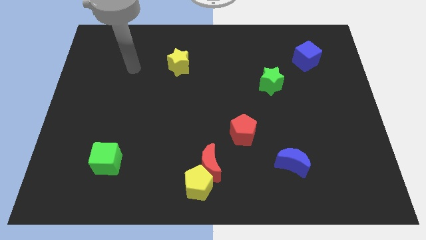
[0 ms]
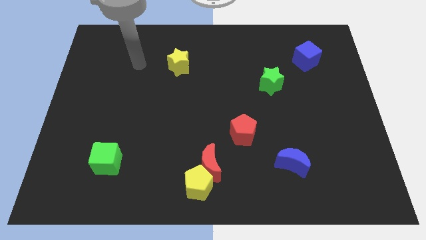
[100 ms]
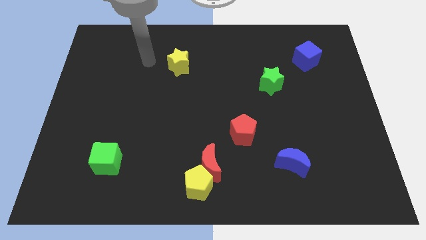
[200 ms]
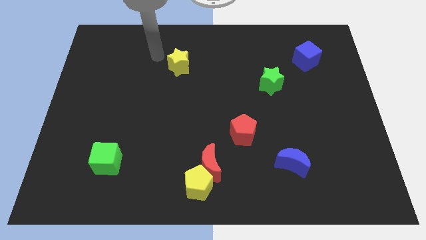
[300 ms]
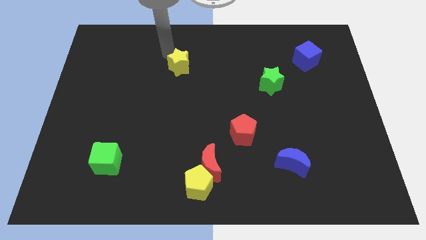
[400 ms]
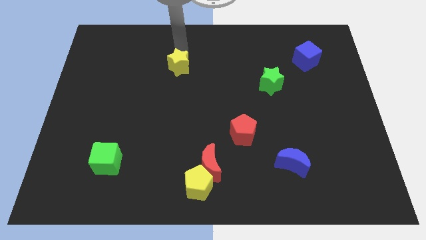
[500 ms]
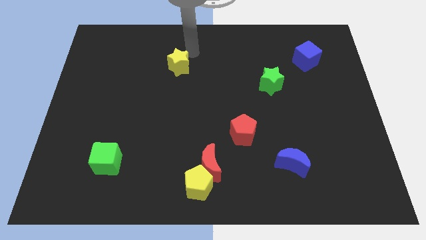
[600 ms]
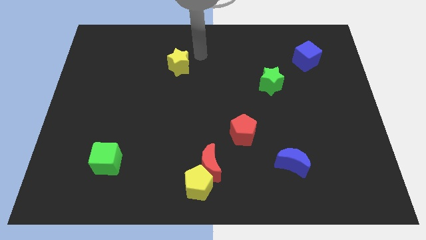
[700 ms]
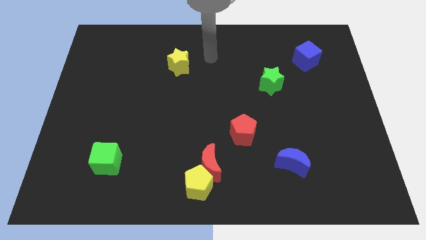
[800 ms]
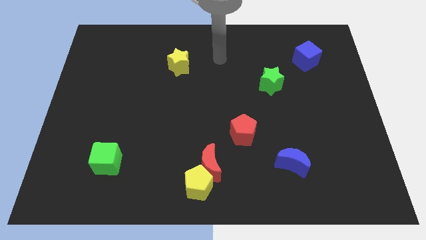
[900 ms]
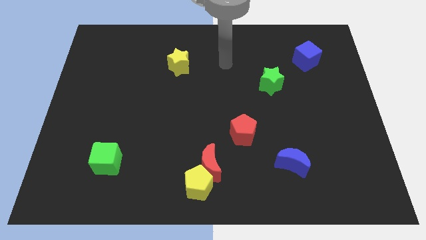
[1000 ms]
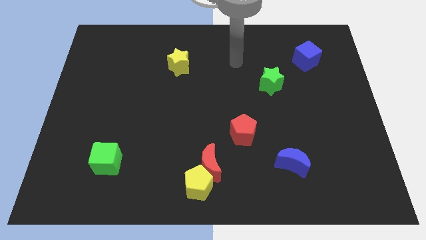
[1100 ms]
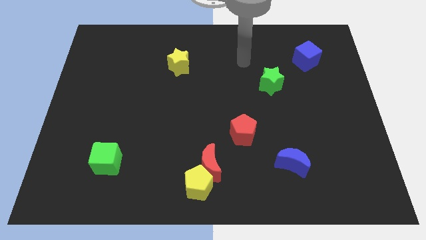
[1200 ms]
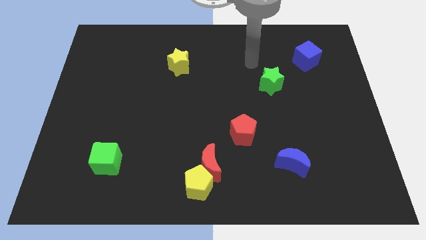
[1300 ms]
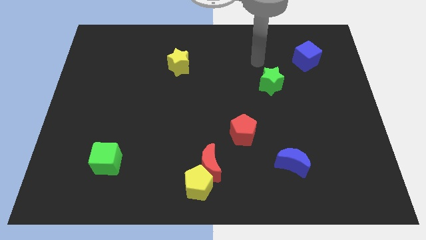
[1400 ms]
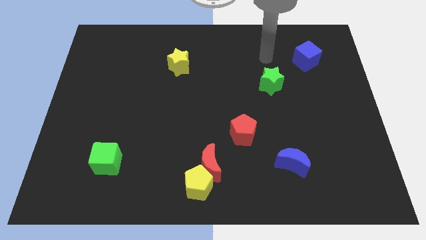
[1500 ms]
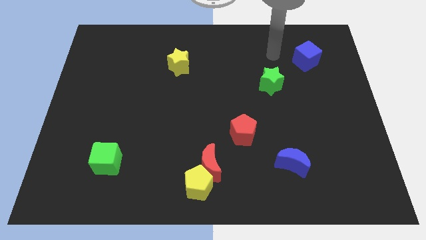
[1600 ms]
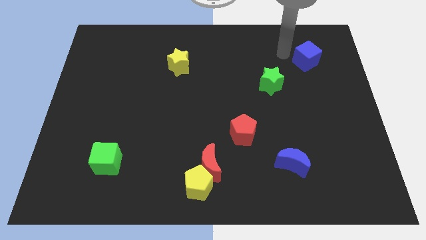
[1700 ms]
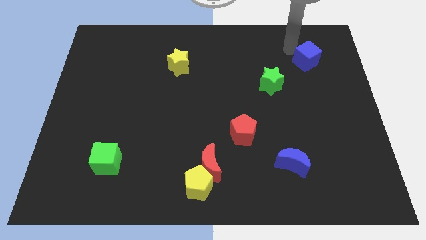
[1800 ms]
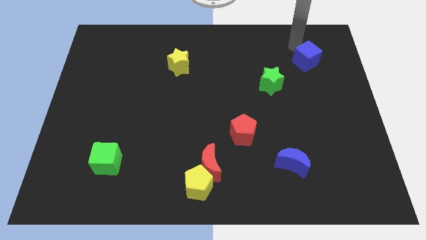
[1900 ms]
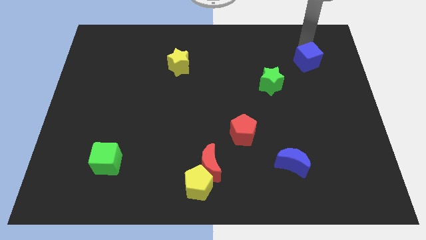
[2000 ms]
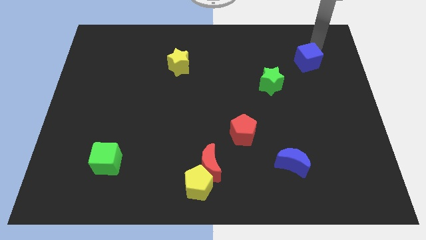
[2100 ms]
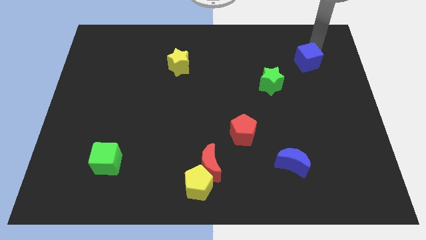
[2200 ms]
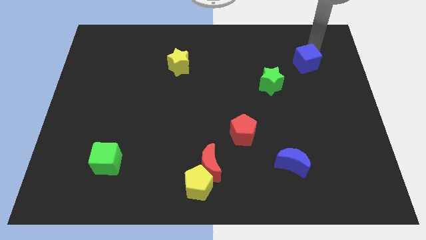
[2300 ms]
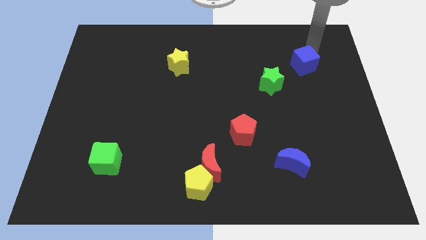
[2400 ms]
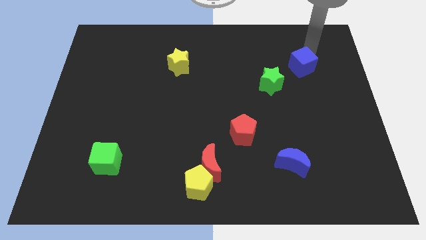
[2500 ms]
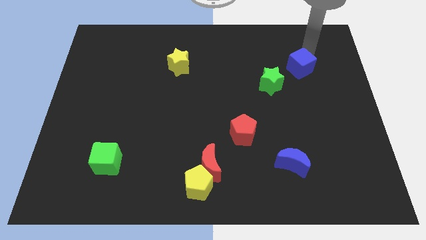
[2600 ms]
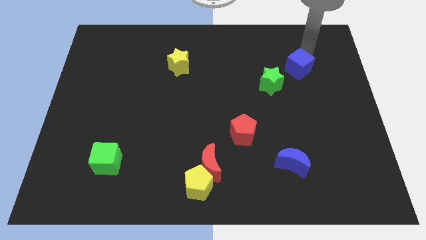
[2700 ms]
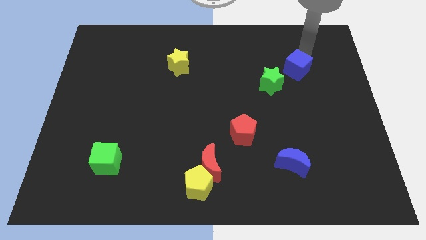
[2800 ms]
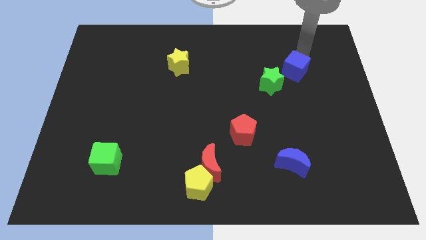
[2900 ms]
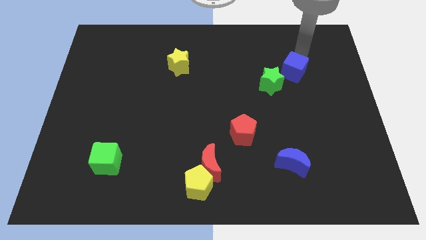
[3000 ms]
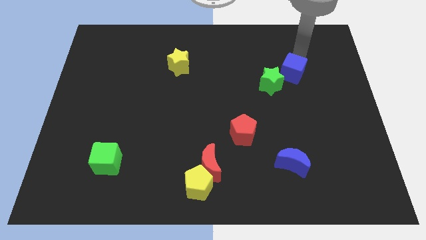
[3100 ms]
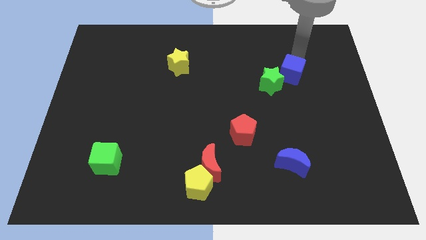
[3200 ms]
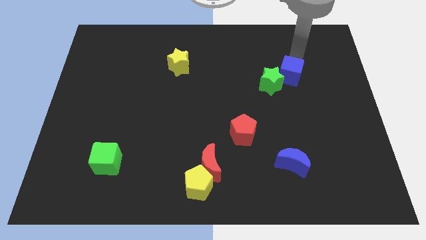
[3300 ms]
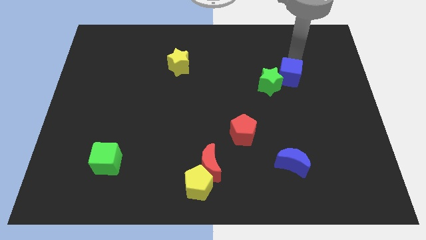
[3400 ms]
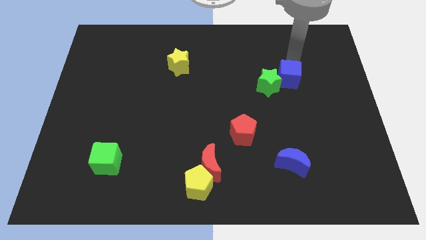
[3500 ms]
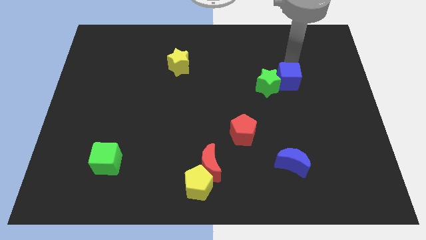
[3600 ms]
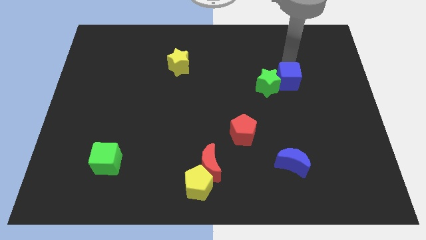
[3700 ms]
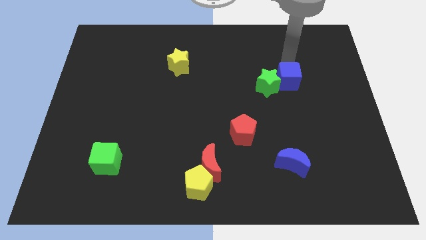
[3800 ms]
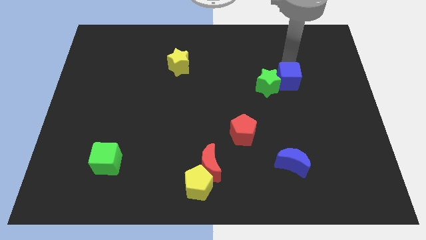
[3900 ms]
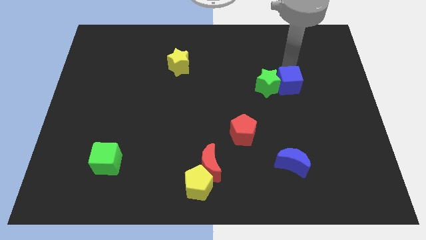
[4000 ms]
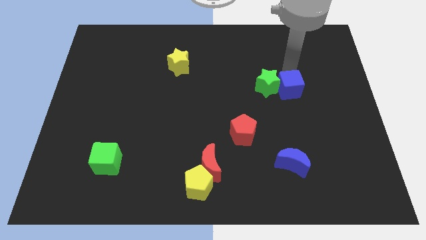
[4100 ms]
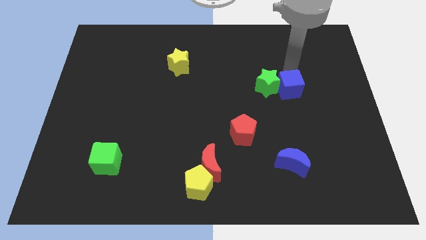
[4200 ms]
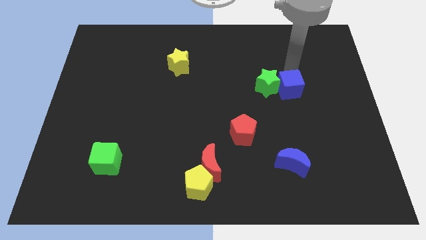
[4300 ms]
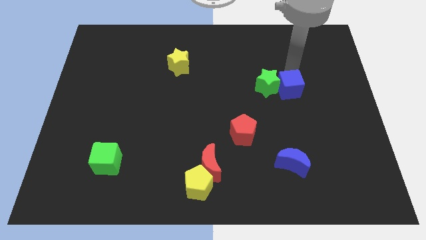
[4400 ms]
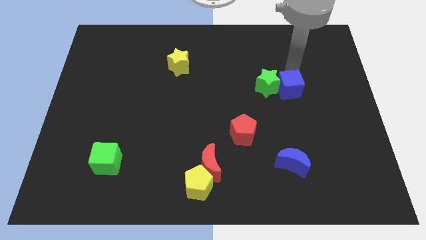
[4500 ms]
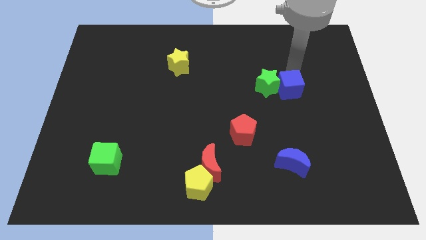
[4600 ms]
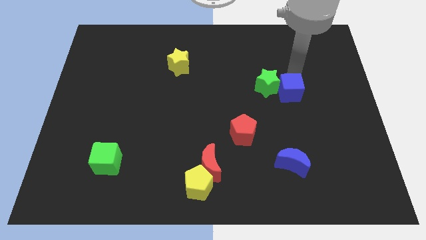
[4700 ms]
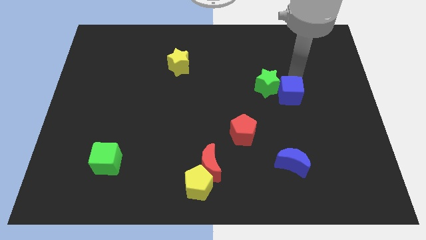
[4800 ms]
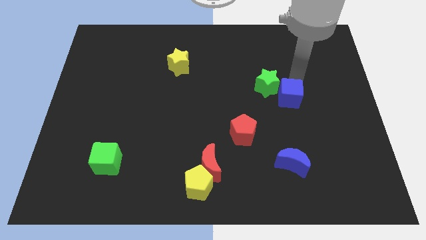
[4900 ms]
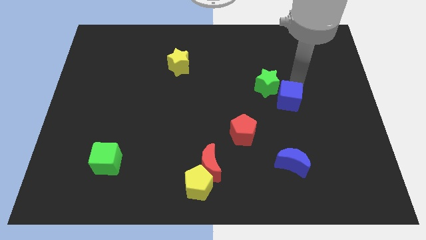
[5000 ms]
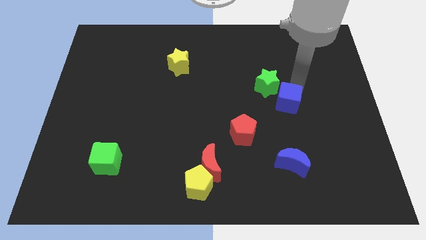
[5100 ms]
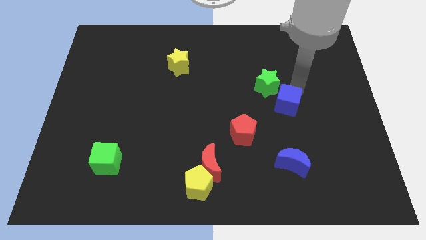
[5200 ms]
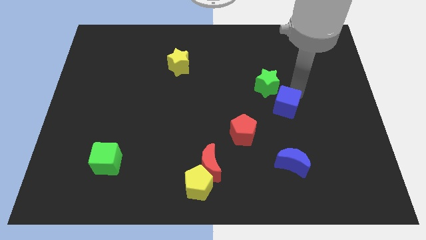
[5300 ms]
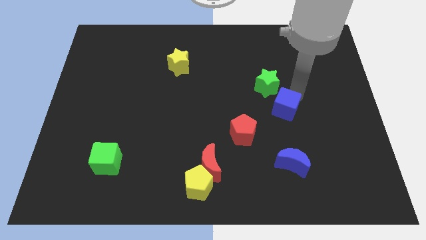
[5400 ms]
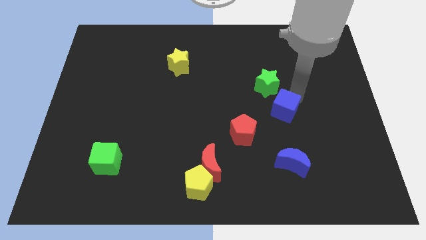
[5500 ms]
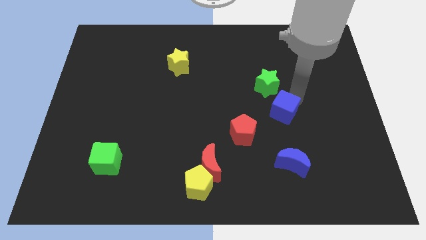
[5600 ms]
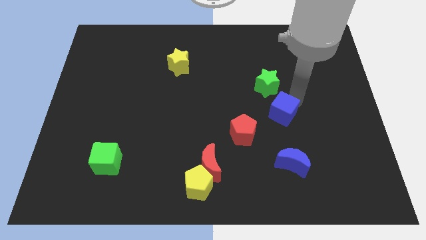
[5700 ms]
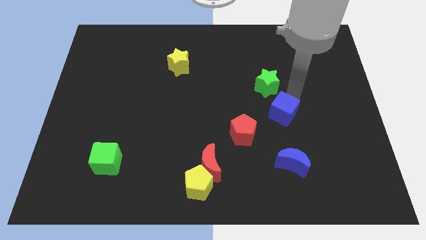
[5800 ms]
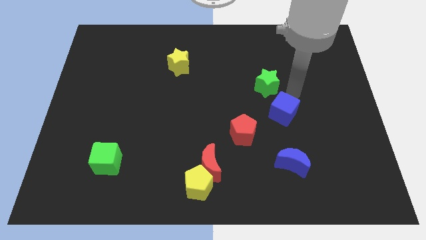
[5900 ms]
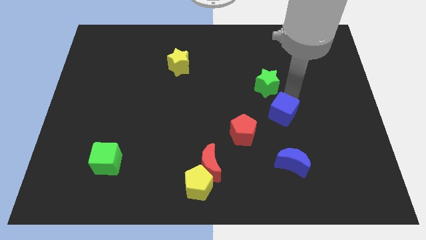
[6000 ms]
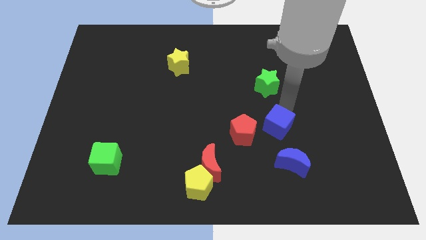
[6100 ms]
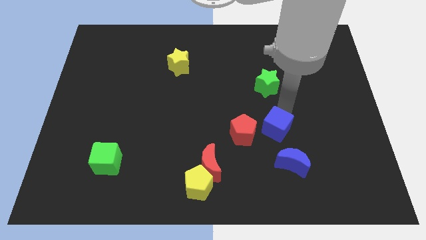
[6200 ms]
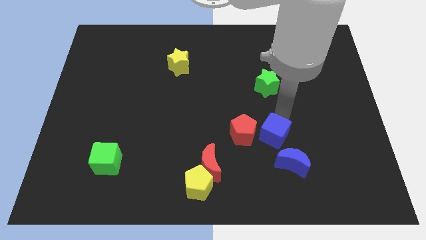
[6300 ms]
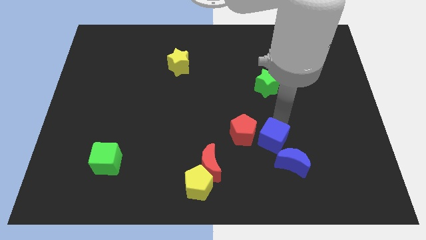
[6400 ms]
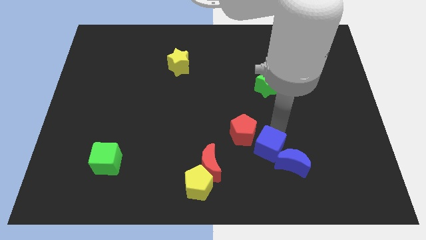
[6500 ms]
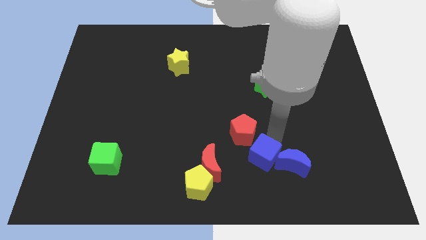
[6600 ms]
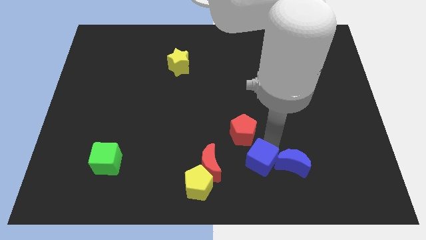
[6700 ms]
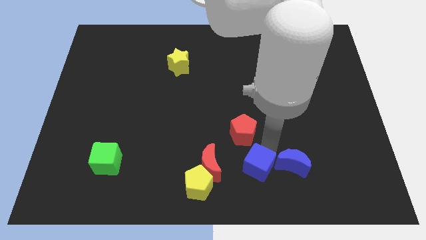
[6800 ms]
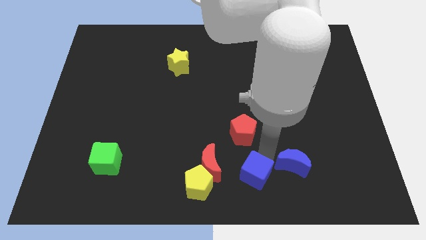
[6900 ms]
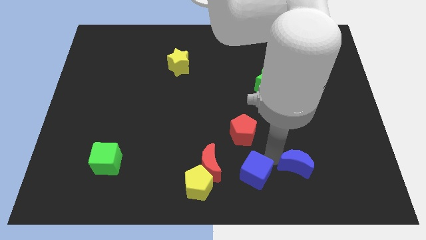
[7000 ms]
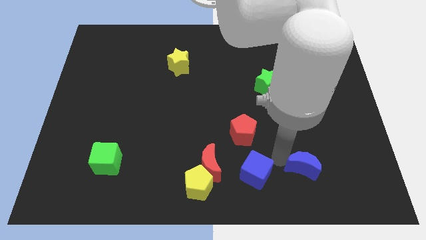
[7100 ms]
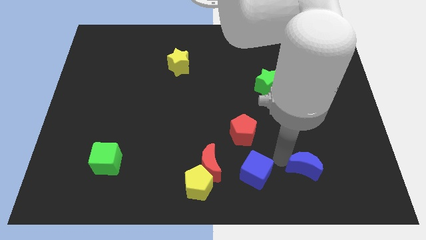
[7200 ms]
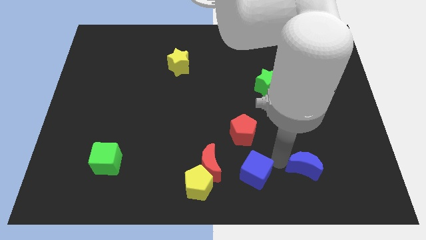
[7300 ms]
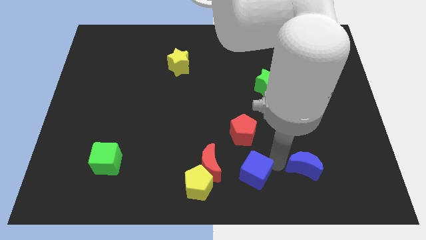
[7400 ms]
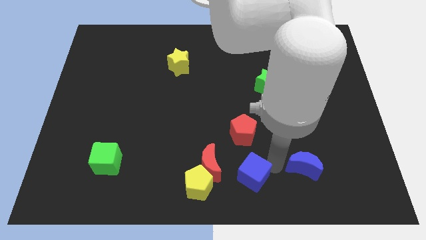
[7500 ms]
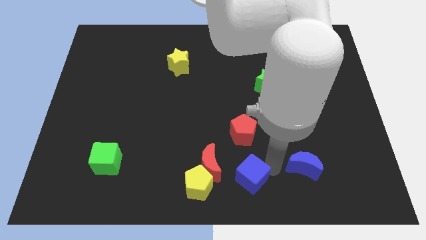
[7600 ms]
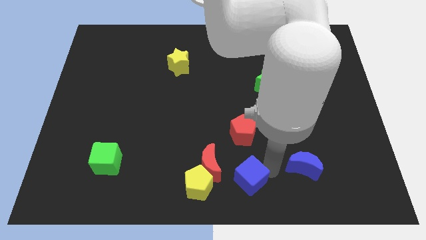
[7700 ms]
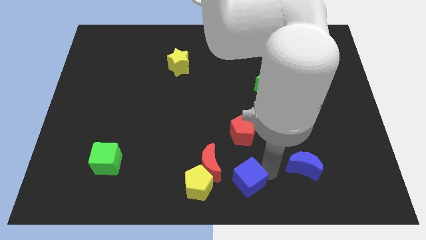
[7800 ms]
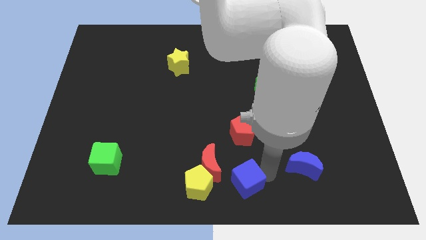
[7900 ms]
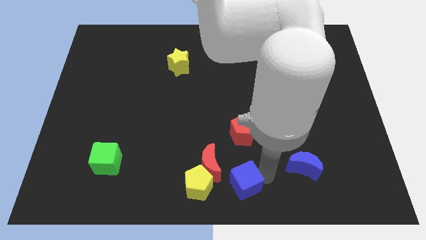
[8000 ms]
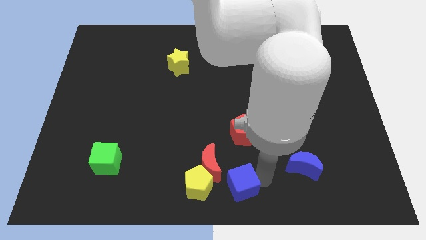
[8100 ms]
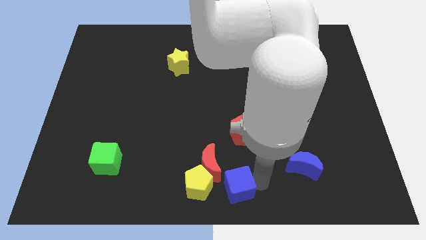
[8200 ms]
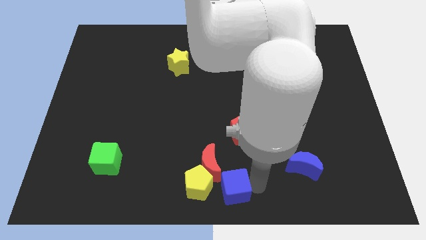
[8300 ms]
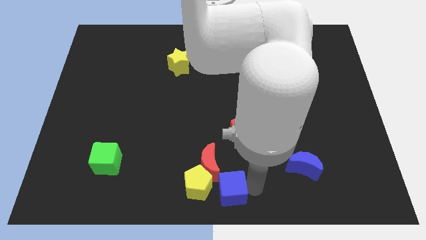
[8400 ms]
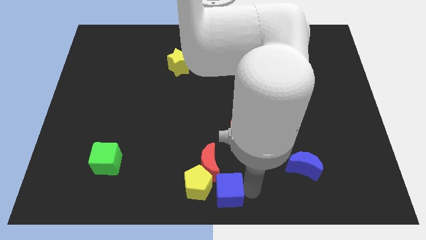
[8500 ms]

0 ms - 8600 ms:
move the blue cube towards the yellow pentagon
